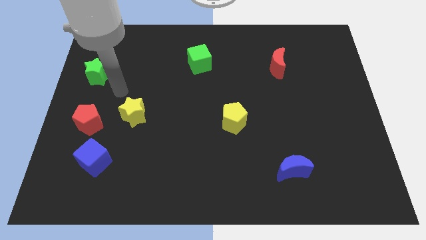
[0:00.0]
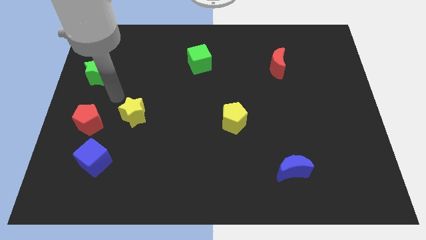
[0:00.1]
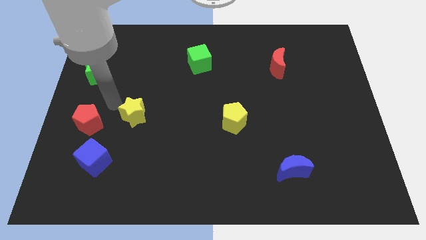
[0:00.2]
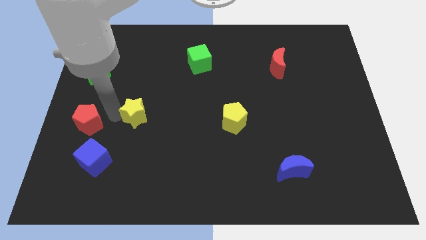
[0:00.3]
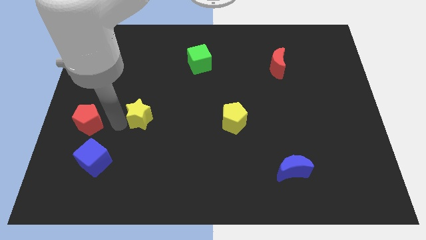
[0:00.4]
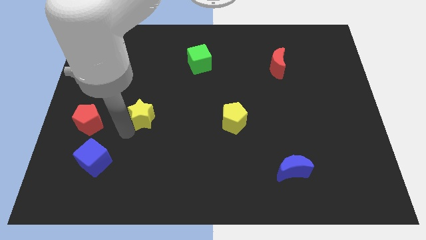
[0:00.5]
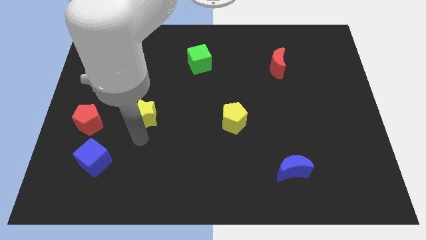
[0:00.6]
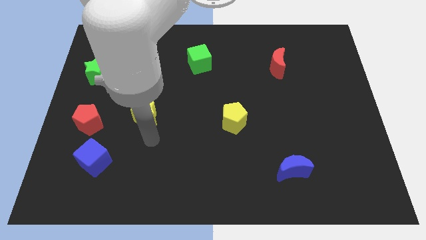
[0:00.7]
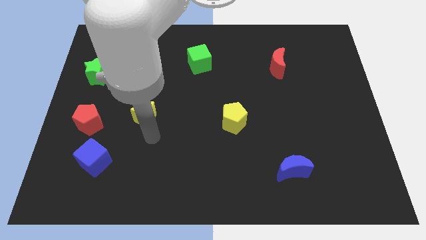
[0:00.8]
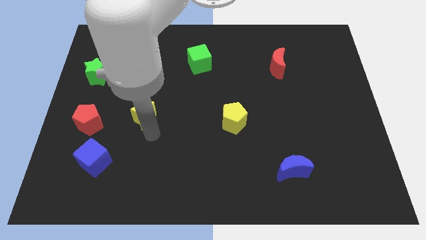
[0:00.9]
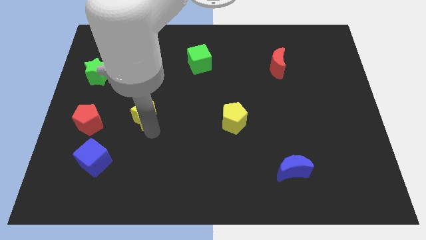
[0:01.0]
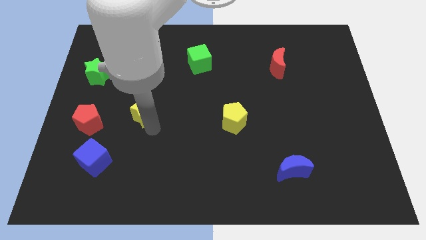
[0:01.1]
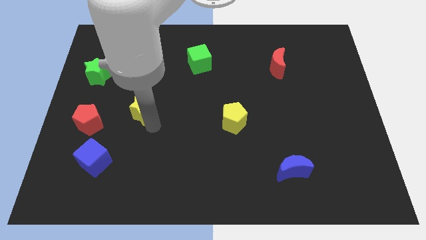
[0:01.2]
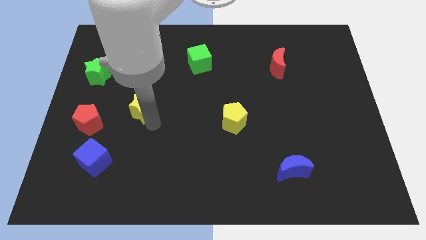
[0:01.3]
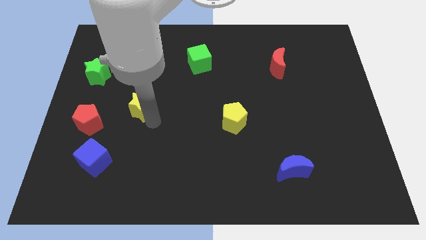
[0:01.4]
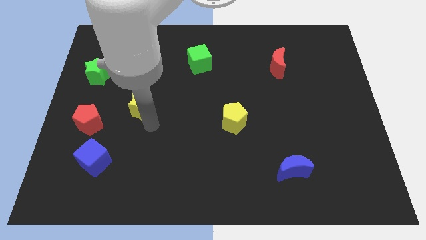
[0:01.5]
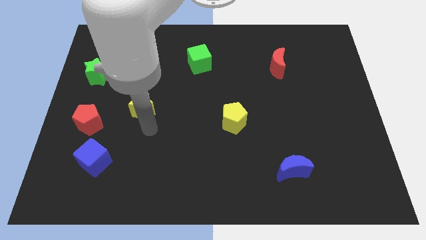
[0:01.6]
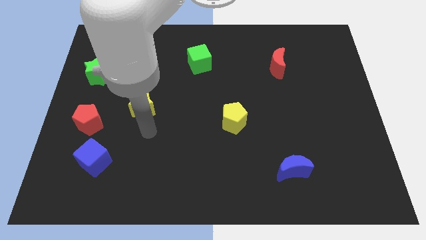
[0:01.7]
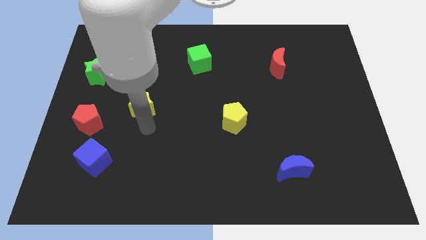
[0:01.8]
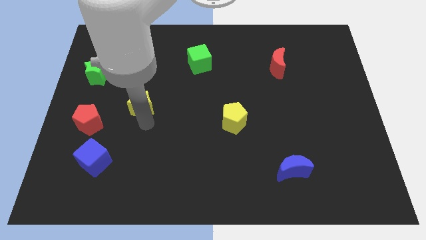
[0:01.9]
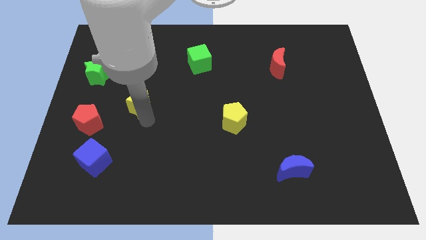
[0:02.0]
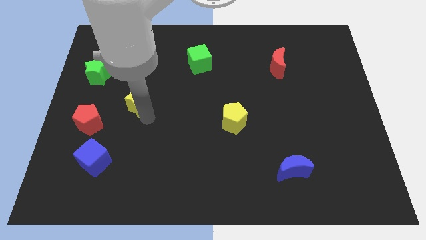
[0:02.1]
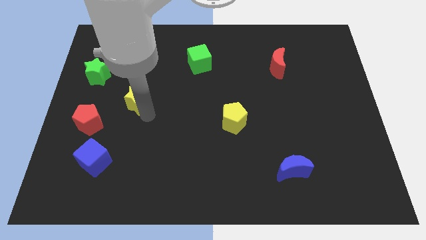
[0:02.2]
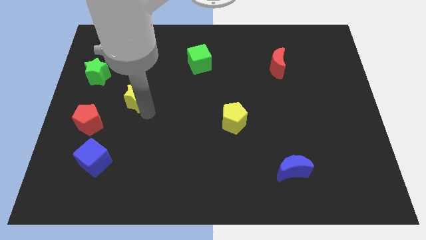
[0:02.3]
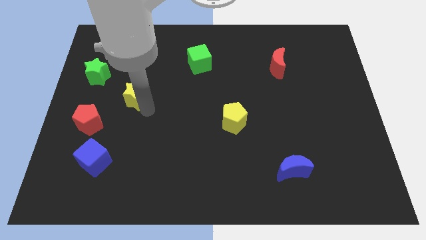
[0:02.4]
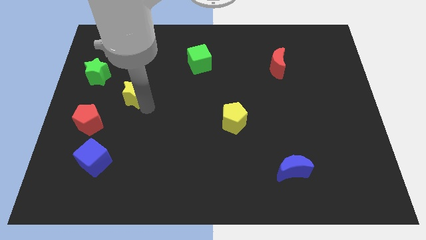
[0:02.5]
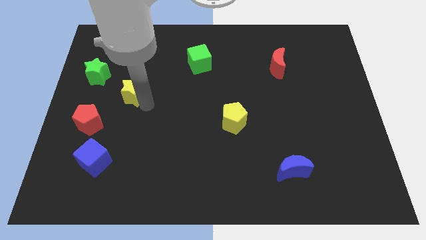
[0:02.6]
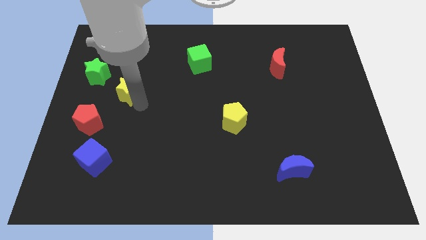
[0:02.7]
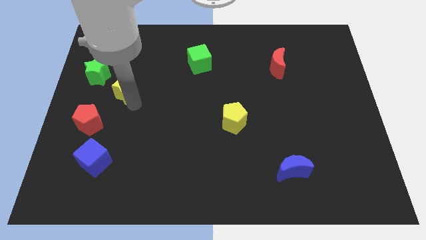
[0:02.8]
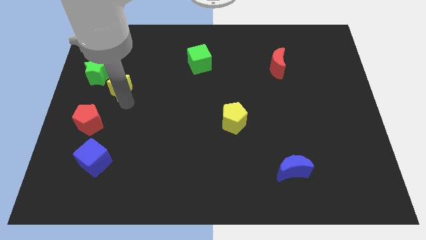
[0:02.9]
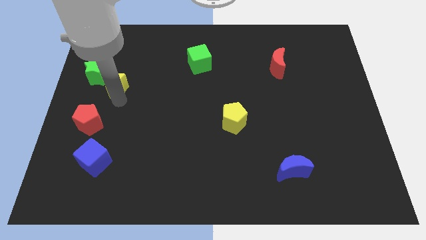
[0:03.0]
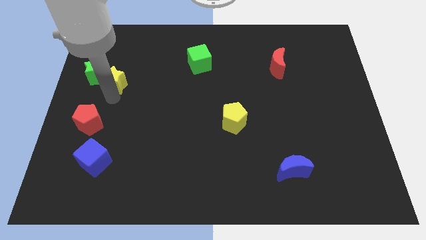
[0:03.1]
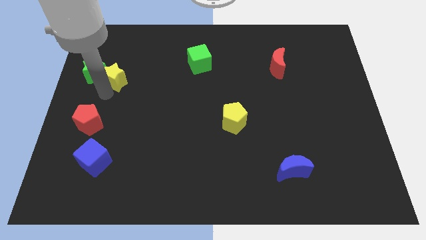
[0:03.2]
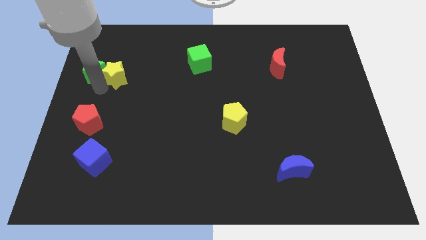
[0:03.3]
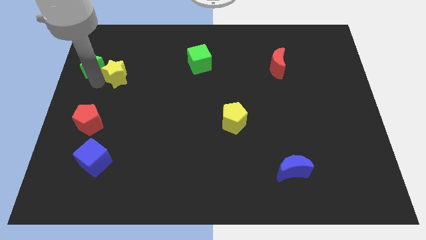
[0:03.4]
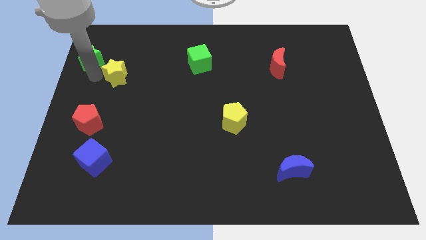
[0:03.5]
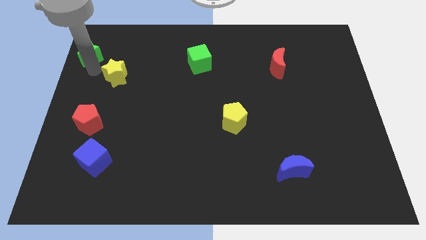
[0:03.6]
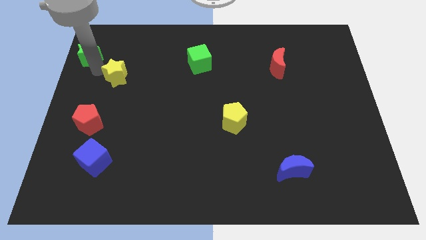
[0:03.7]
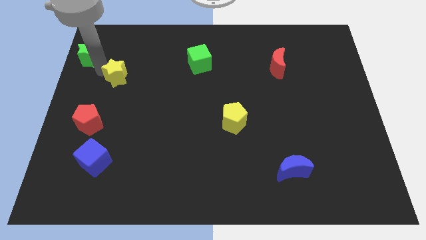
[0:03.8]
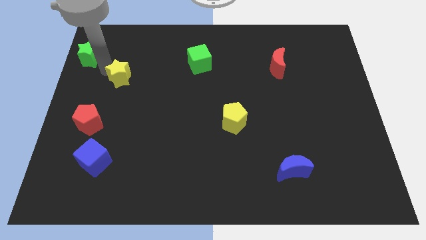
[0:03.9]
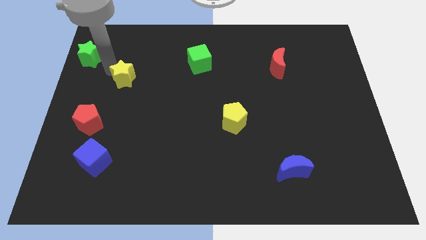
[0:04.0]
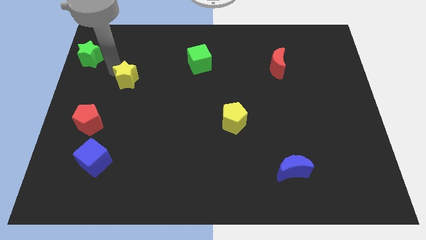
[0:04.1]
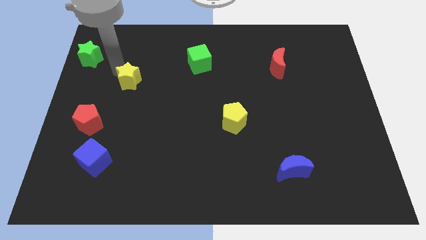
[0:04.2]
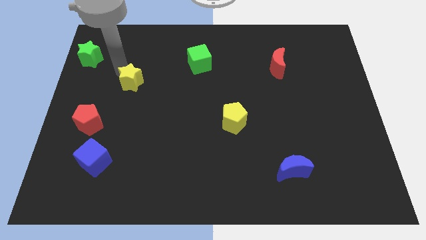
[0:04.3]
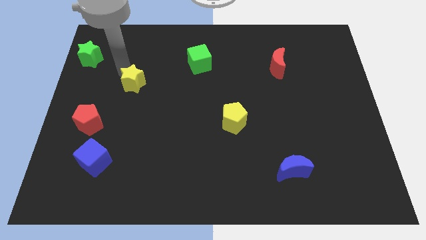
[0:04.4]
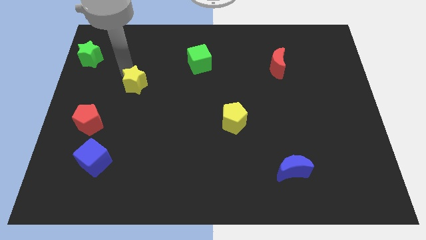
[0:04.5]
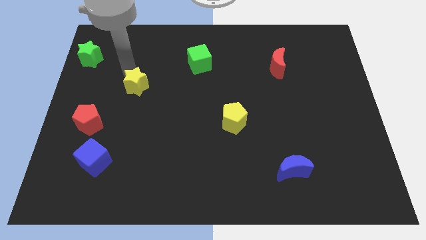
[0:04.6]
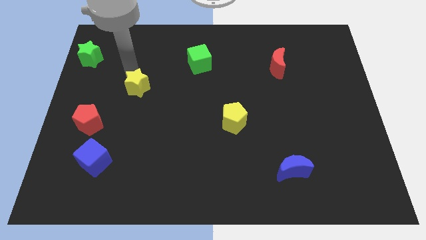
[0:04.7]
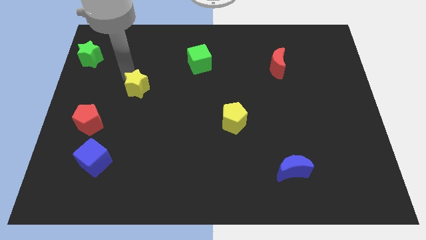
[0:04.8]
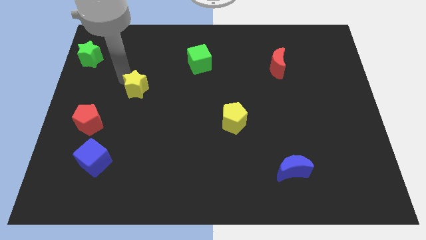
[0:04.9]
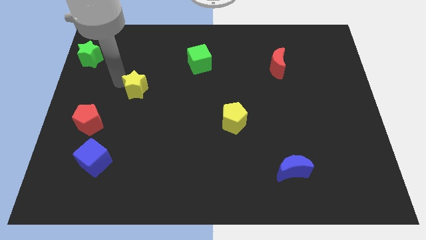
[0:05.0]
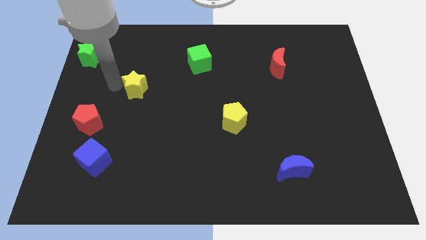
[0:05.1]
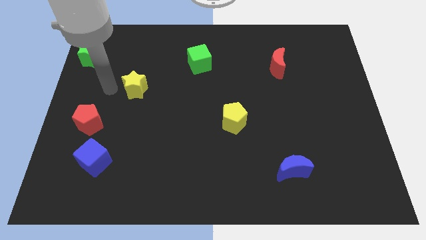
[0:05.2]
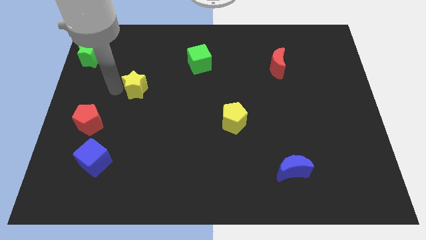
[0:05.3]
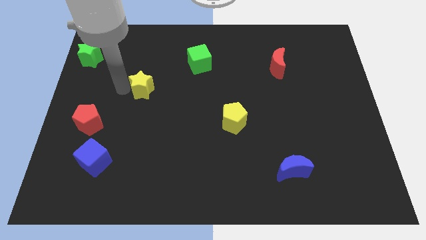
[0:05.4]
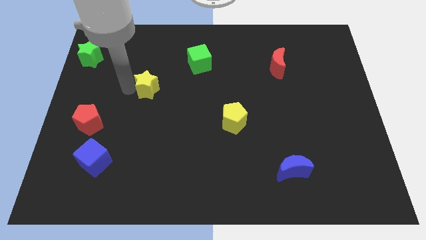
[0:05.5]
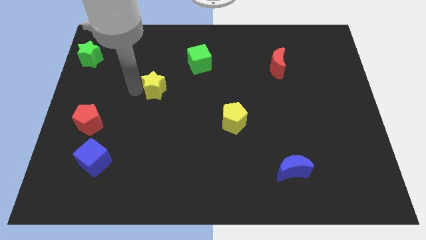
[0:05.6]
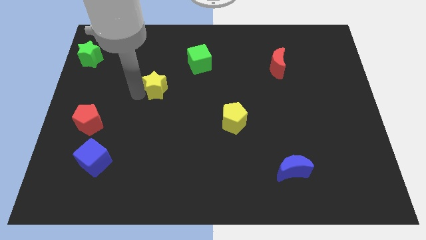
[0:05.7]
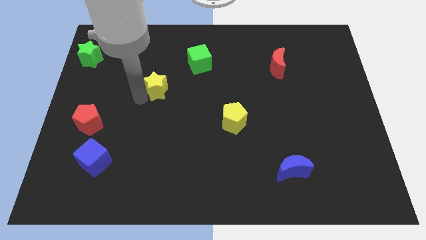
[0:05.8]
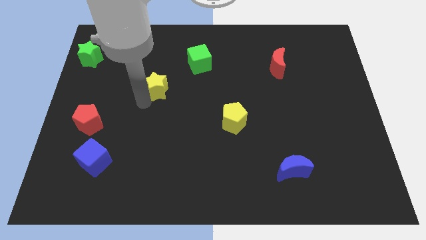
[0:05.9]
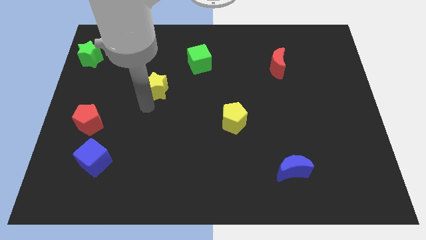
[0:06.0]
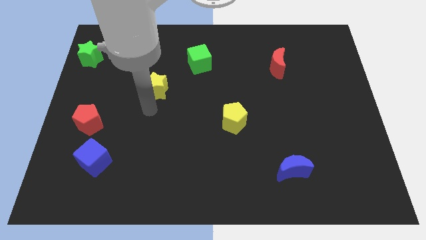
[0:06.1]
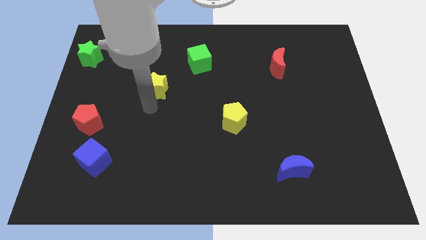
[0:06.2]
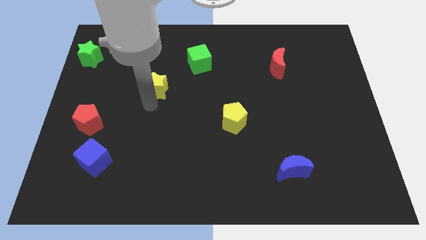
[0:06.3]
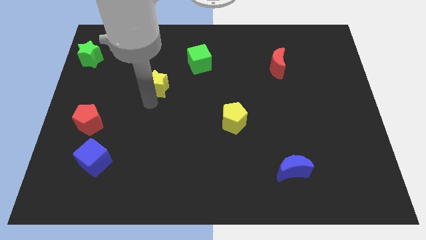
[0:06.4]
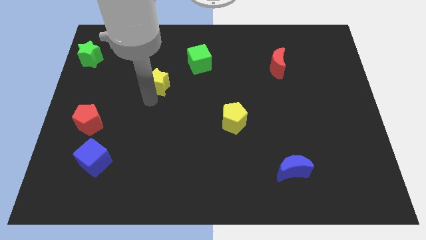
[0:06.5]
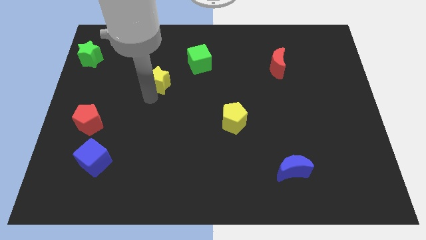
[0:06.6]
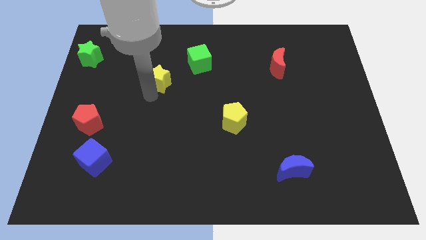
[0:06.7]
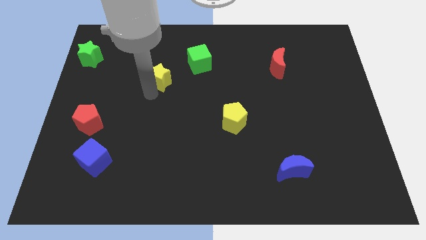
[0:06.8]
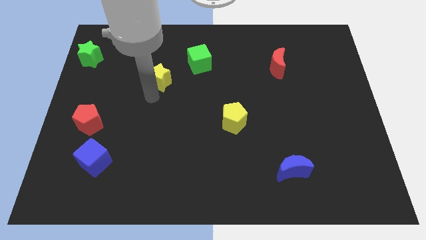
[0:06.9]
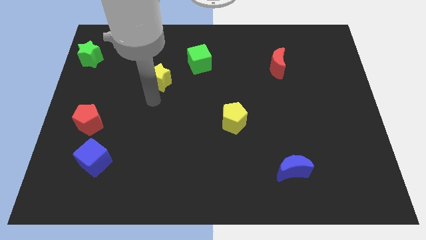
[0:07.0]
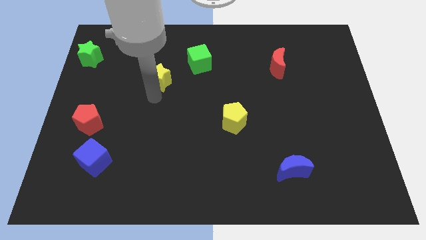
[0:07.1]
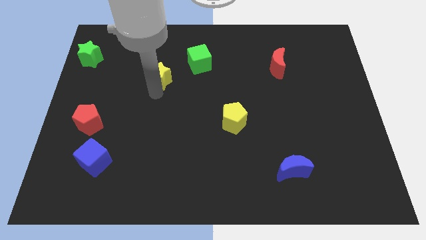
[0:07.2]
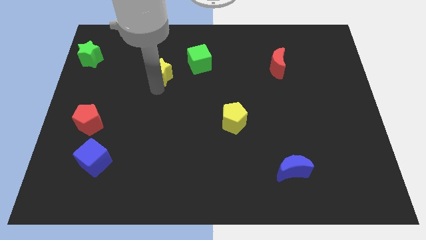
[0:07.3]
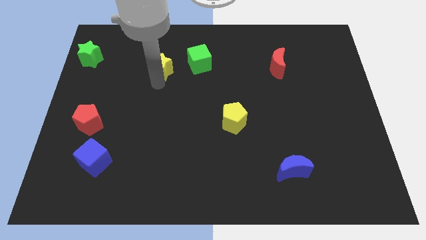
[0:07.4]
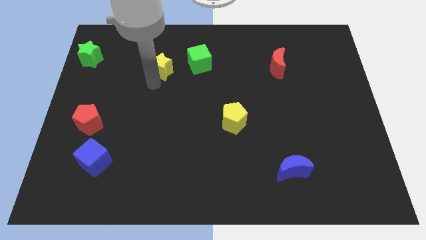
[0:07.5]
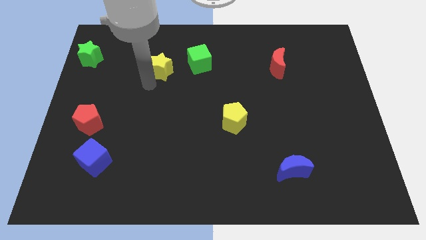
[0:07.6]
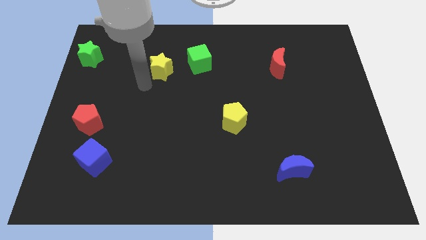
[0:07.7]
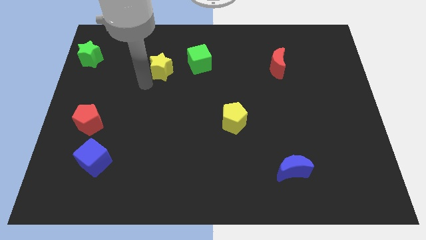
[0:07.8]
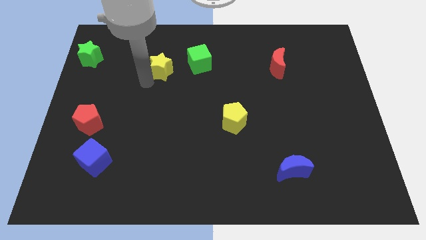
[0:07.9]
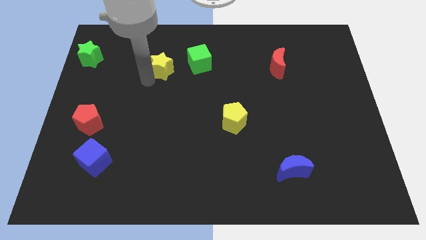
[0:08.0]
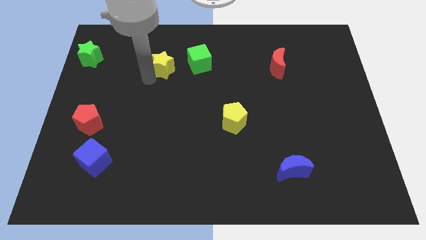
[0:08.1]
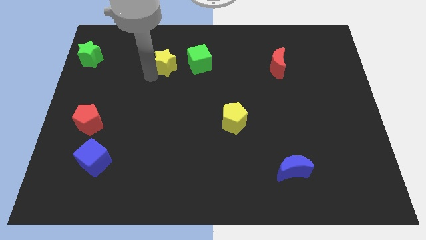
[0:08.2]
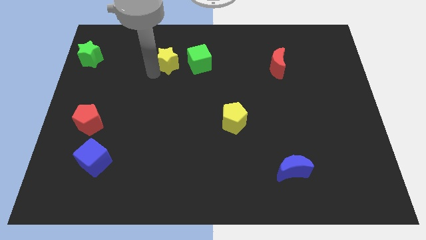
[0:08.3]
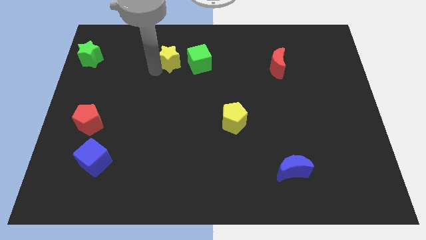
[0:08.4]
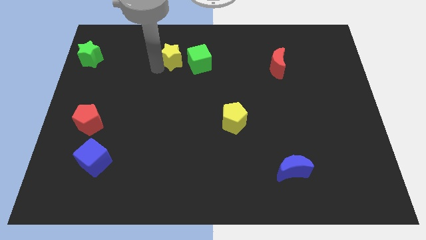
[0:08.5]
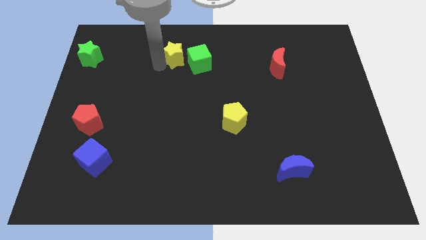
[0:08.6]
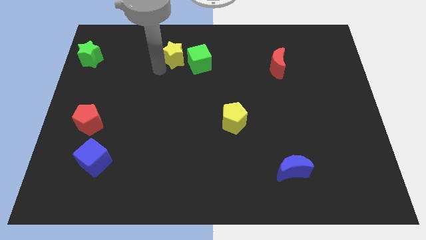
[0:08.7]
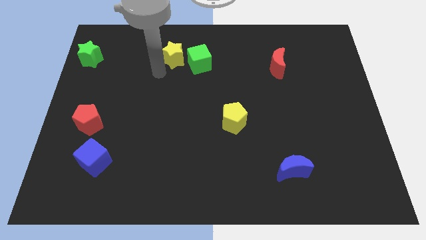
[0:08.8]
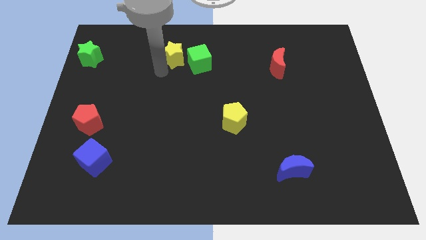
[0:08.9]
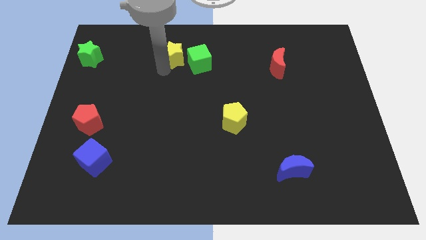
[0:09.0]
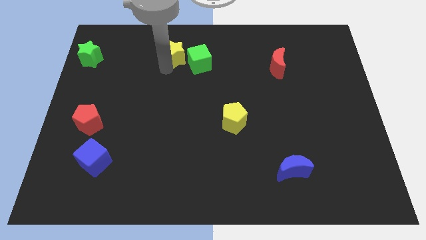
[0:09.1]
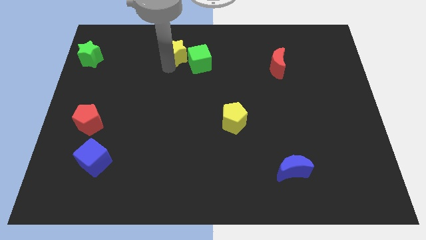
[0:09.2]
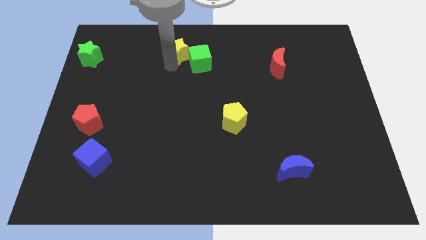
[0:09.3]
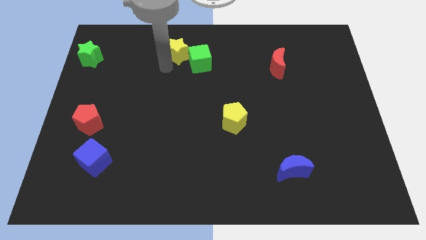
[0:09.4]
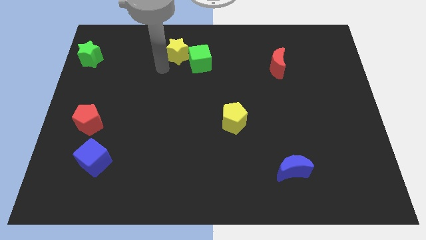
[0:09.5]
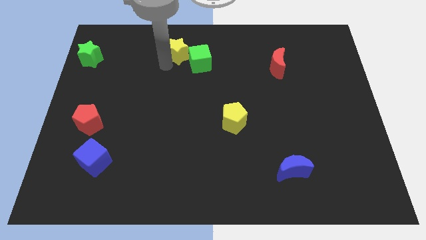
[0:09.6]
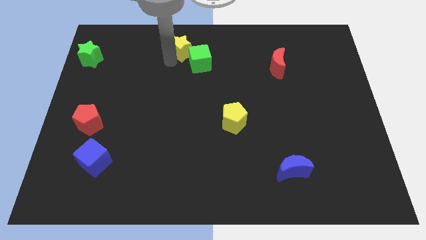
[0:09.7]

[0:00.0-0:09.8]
push the yellow star to the top side
